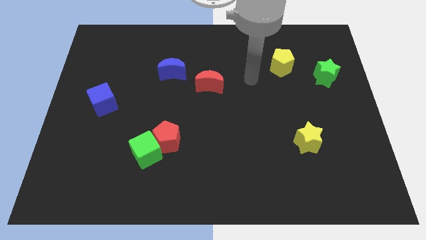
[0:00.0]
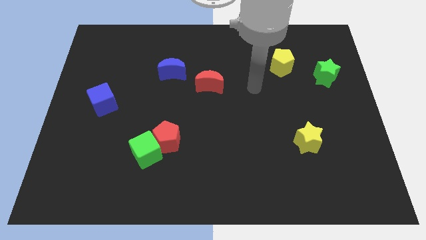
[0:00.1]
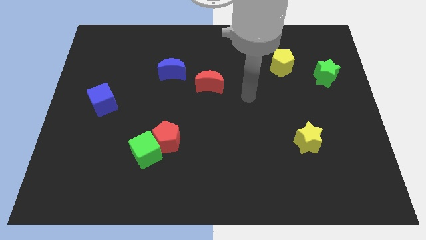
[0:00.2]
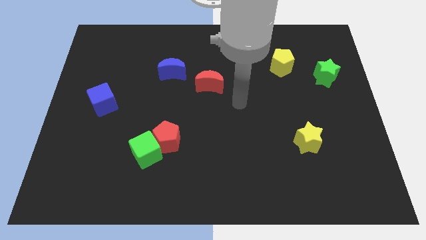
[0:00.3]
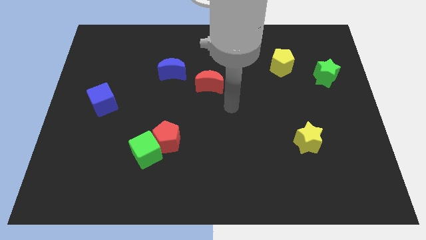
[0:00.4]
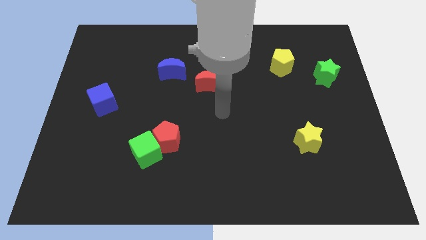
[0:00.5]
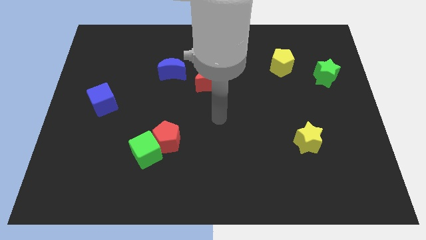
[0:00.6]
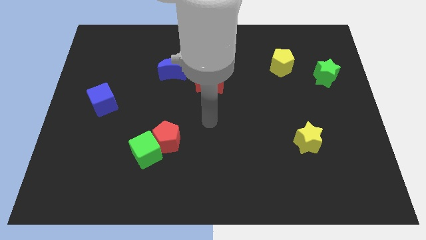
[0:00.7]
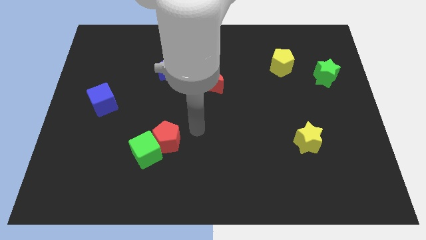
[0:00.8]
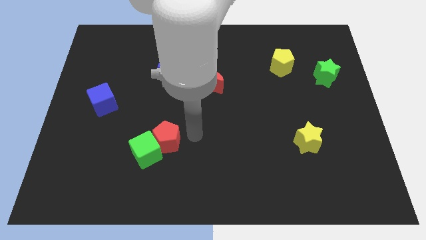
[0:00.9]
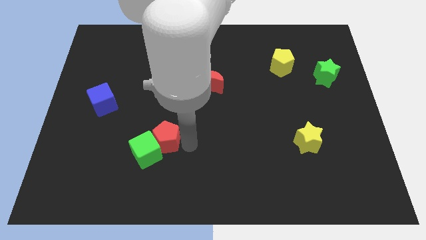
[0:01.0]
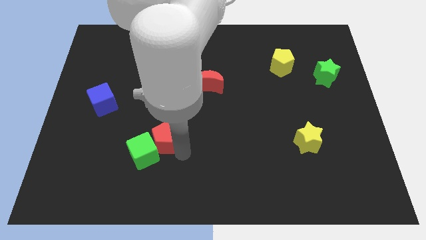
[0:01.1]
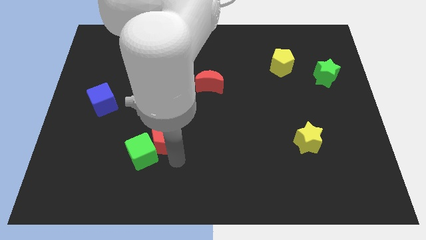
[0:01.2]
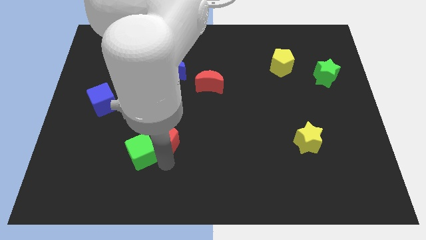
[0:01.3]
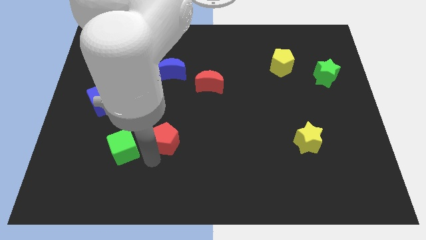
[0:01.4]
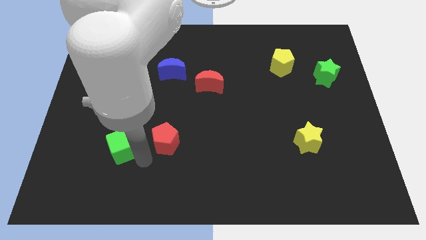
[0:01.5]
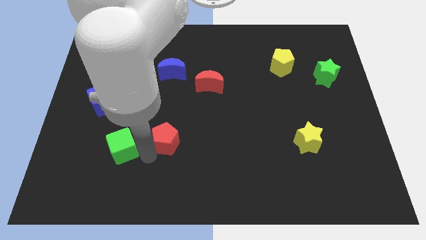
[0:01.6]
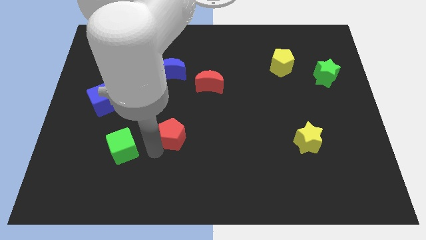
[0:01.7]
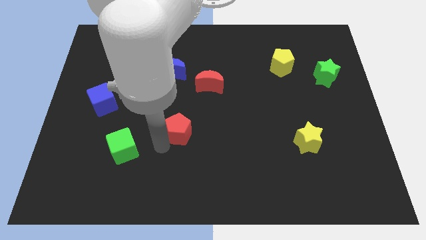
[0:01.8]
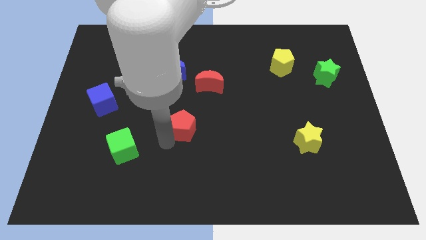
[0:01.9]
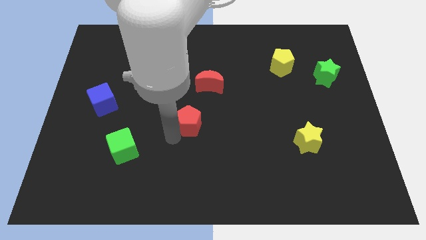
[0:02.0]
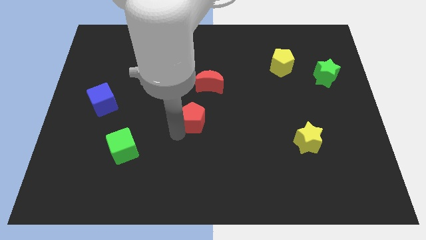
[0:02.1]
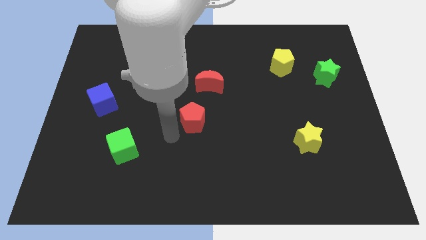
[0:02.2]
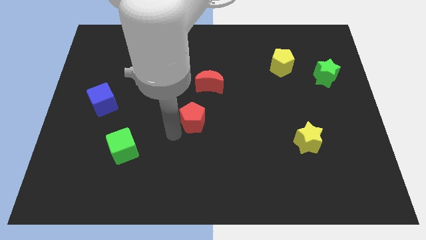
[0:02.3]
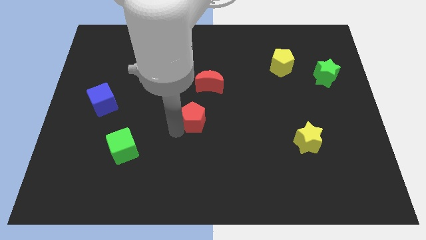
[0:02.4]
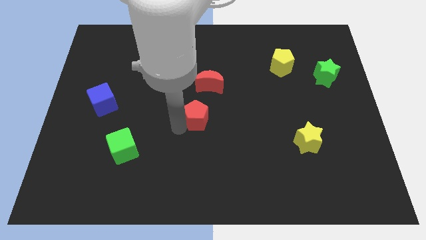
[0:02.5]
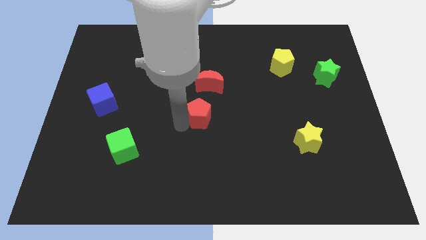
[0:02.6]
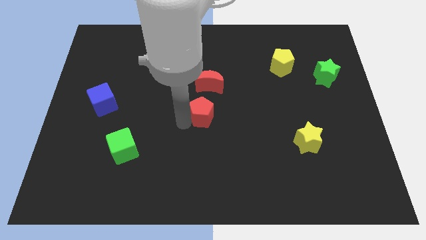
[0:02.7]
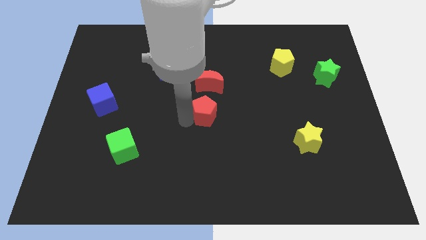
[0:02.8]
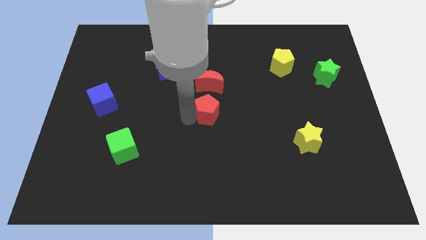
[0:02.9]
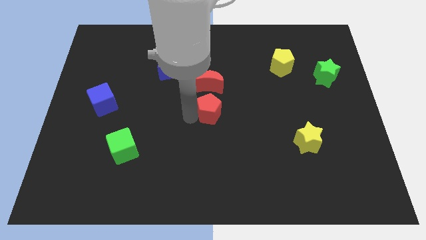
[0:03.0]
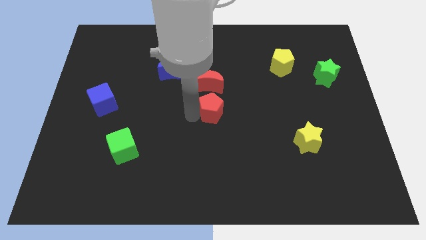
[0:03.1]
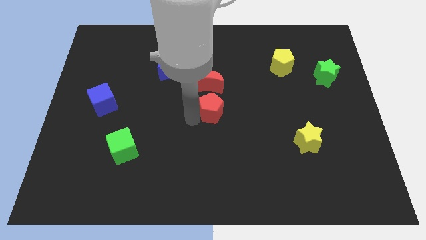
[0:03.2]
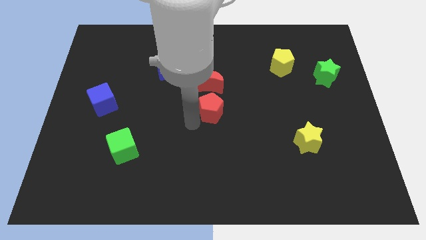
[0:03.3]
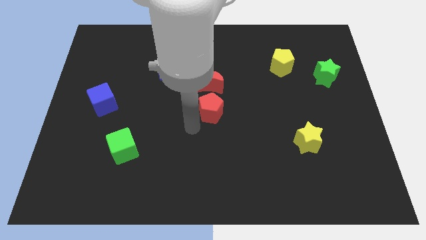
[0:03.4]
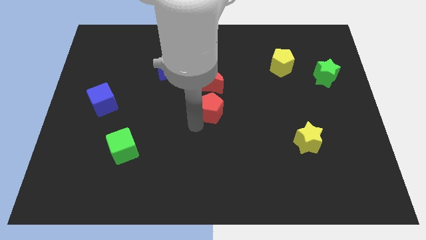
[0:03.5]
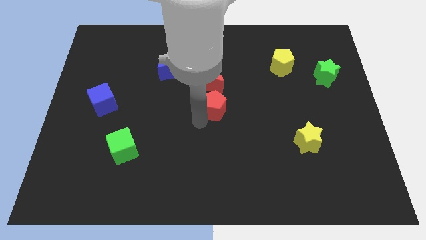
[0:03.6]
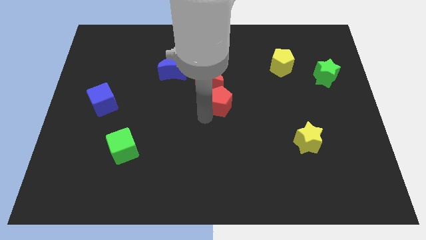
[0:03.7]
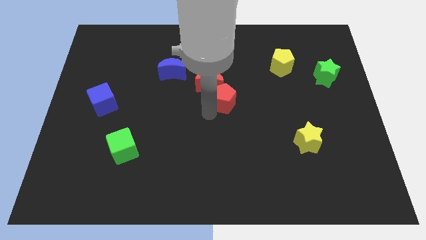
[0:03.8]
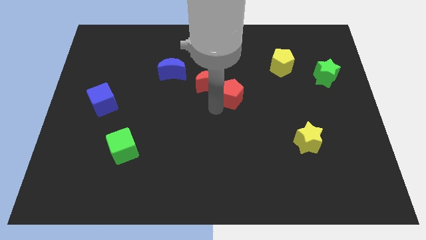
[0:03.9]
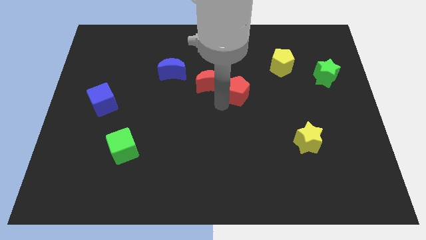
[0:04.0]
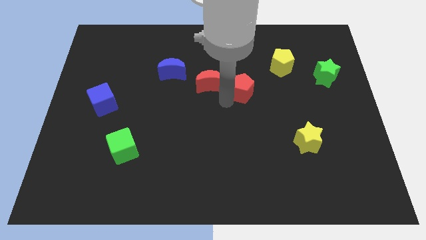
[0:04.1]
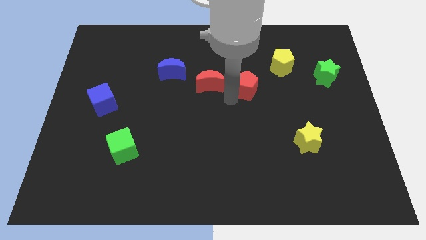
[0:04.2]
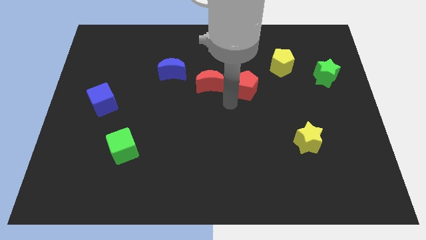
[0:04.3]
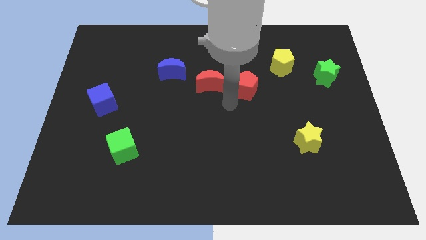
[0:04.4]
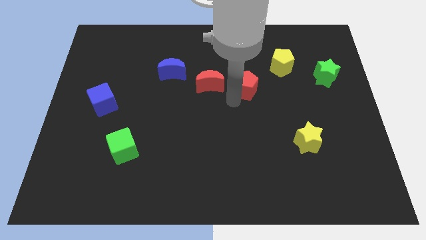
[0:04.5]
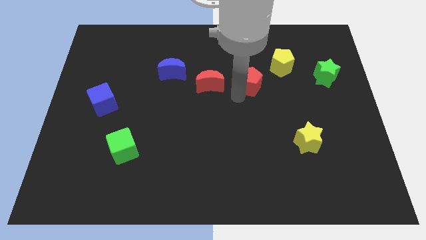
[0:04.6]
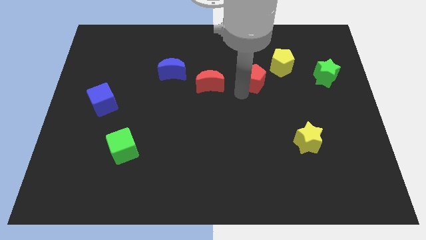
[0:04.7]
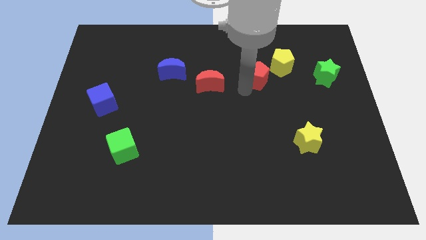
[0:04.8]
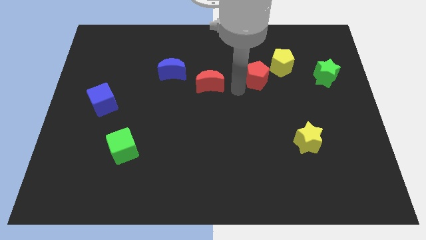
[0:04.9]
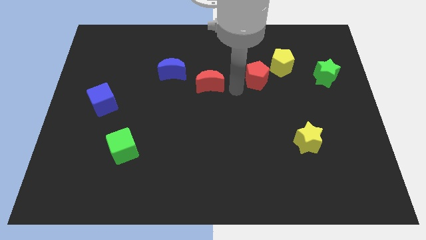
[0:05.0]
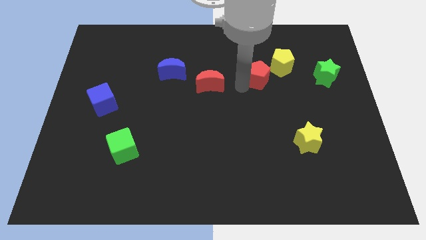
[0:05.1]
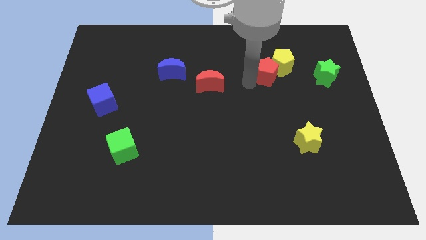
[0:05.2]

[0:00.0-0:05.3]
push the red pentagon towards the yellow pentagon

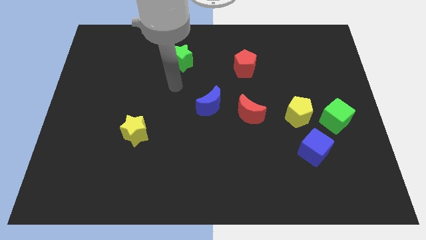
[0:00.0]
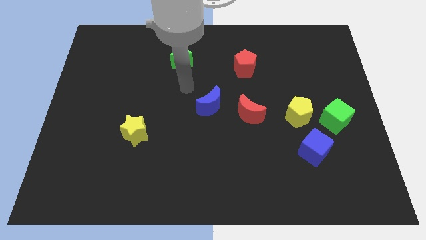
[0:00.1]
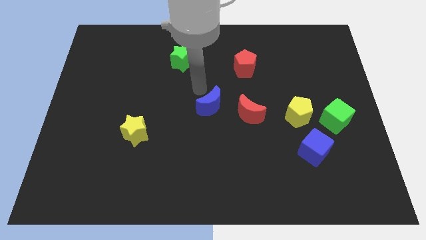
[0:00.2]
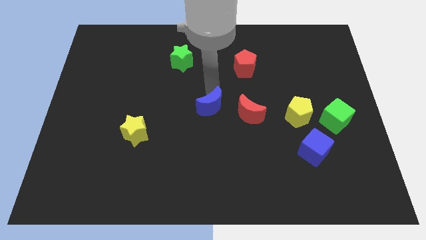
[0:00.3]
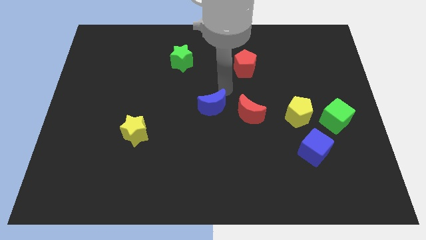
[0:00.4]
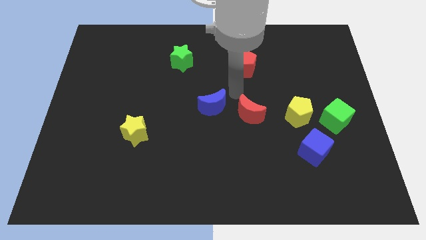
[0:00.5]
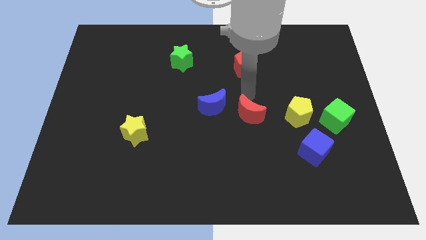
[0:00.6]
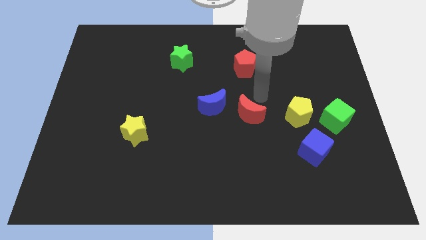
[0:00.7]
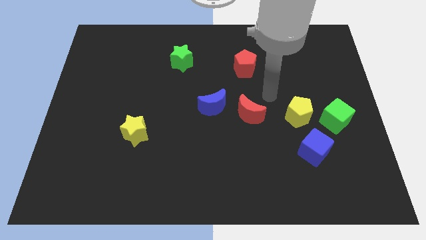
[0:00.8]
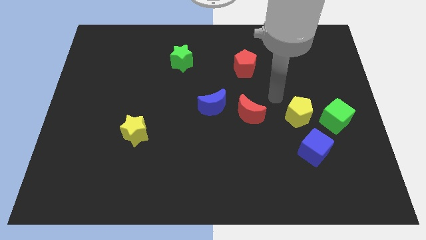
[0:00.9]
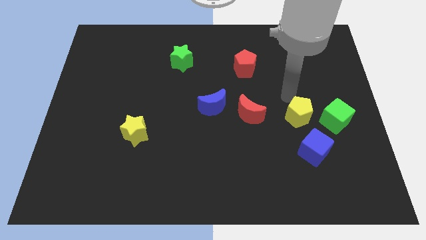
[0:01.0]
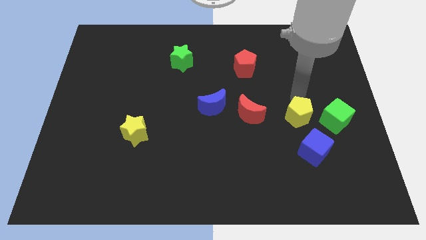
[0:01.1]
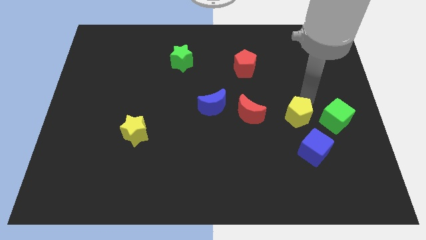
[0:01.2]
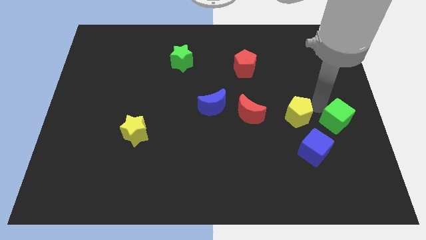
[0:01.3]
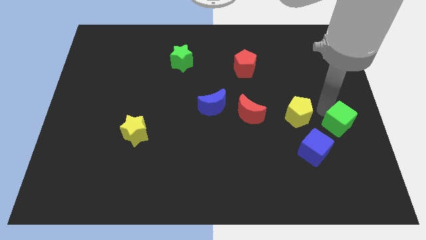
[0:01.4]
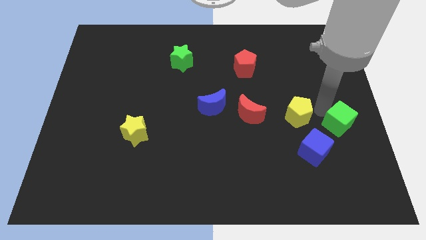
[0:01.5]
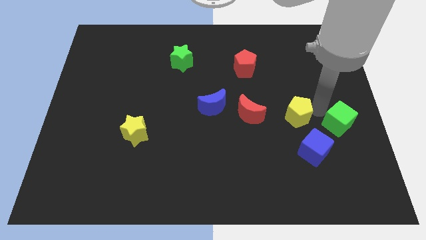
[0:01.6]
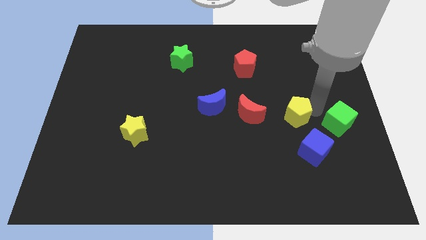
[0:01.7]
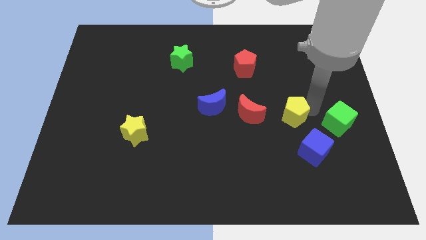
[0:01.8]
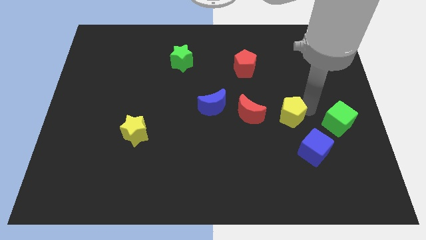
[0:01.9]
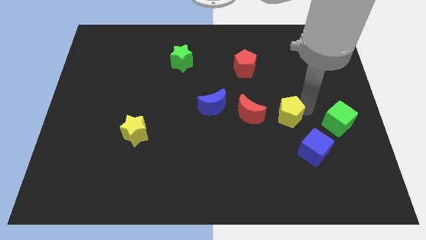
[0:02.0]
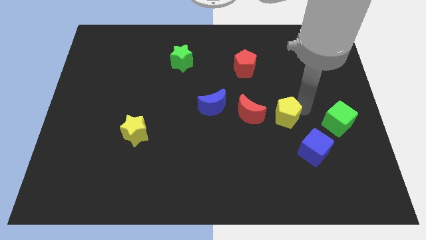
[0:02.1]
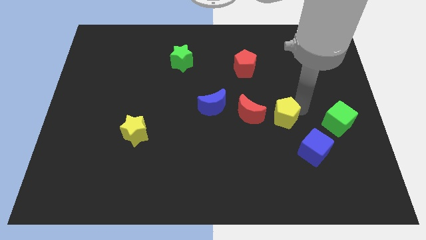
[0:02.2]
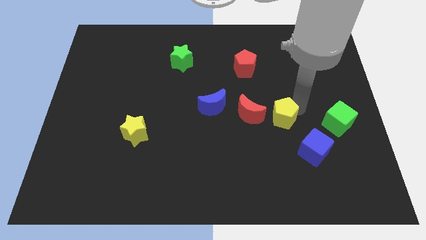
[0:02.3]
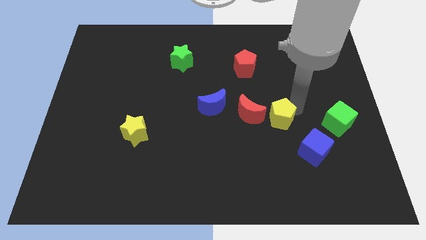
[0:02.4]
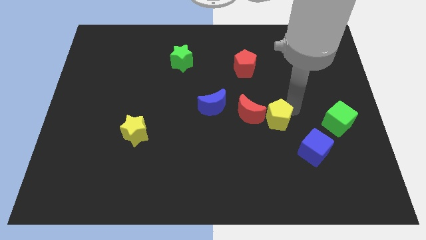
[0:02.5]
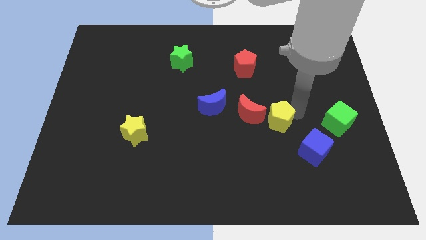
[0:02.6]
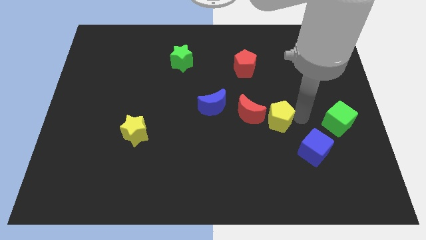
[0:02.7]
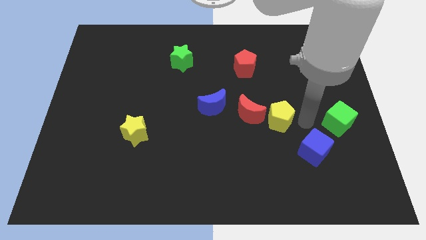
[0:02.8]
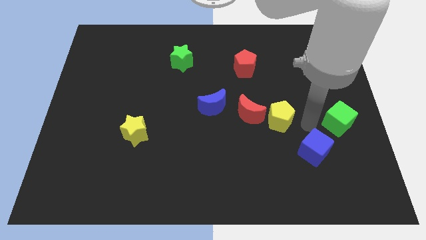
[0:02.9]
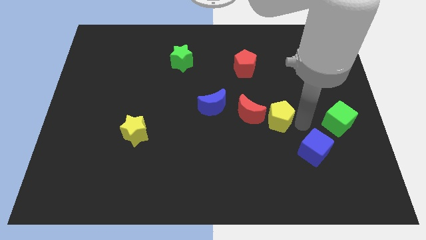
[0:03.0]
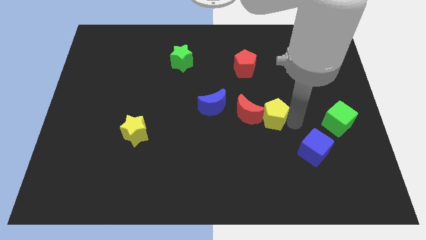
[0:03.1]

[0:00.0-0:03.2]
push the yellow pentagon to the red moon
